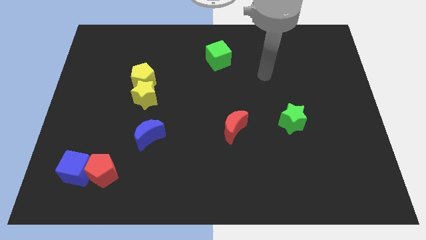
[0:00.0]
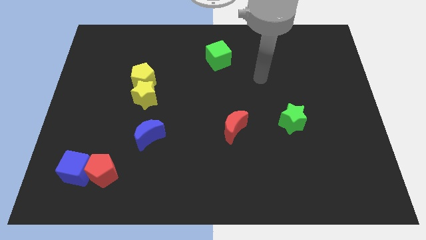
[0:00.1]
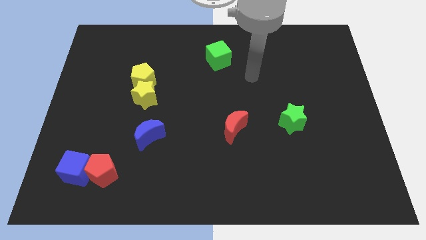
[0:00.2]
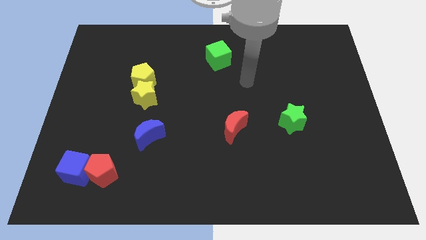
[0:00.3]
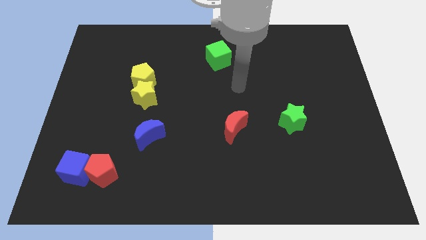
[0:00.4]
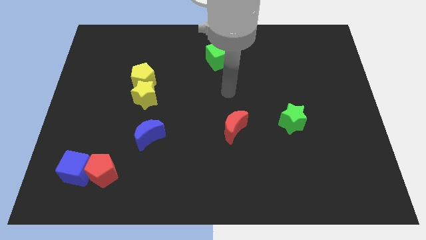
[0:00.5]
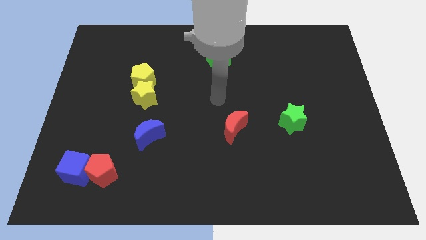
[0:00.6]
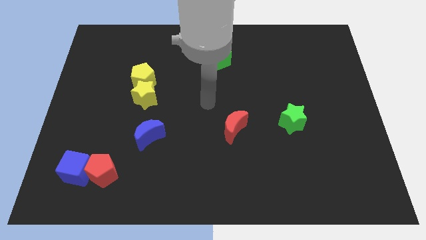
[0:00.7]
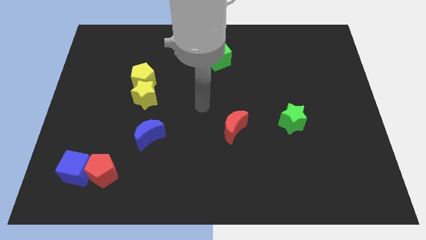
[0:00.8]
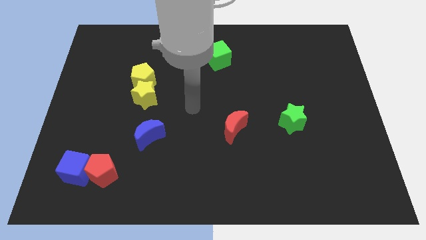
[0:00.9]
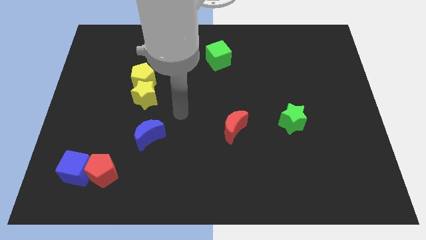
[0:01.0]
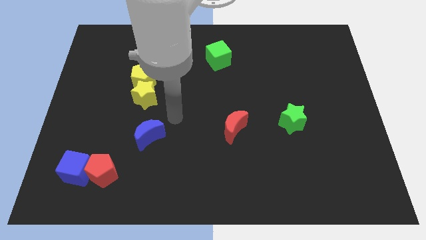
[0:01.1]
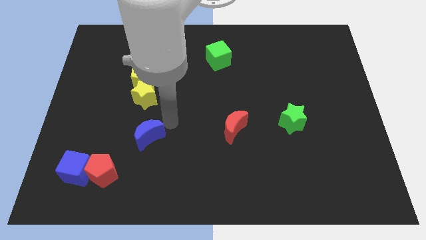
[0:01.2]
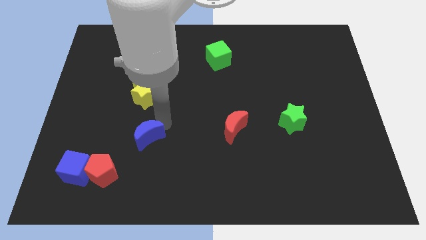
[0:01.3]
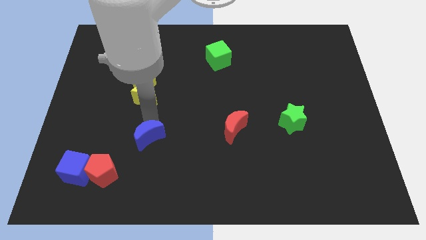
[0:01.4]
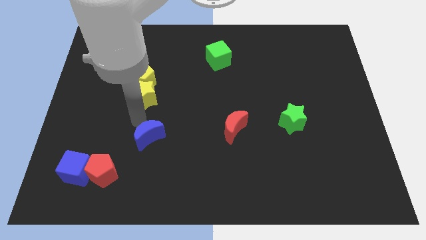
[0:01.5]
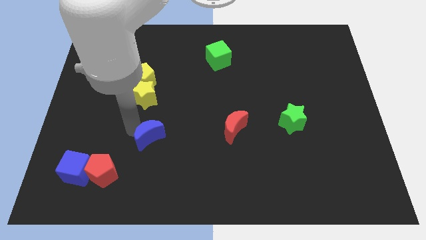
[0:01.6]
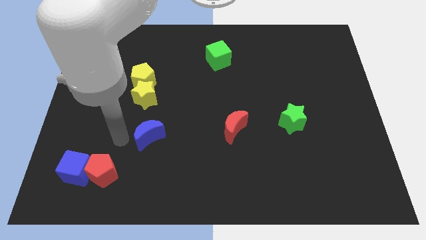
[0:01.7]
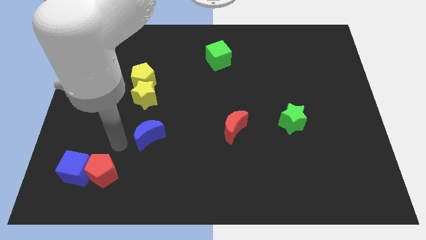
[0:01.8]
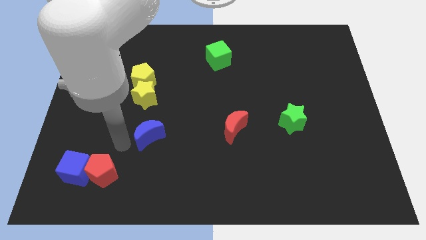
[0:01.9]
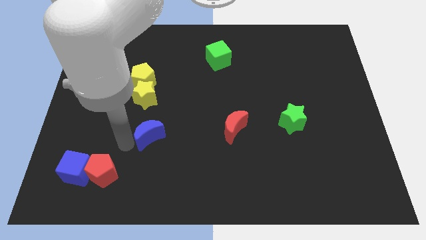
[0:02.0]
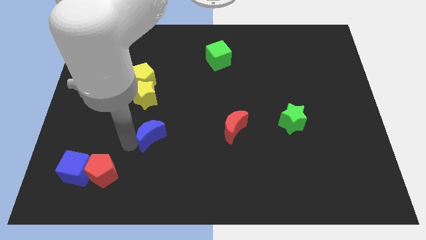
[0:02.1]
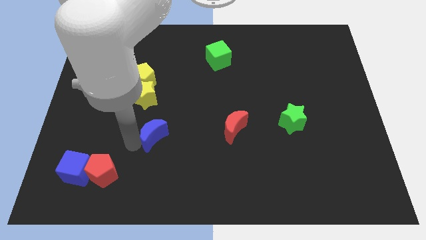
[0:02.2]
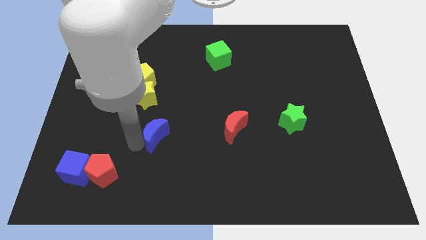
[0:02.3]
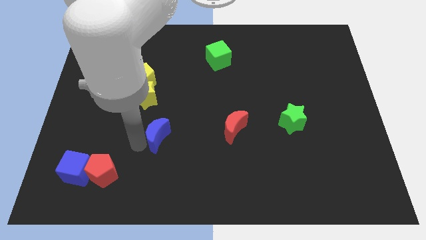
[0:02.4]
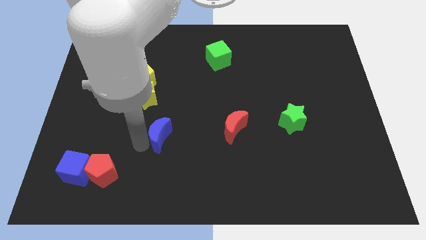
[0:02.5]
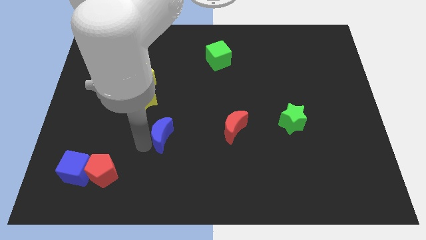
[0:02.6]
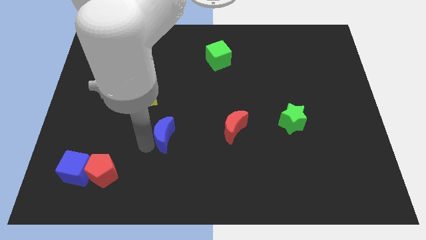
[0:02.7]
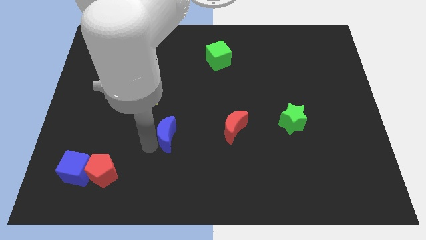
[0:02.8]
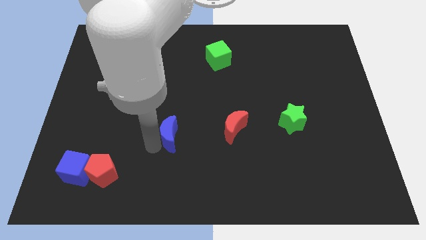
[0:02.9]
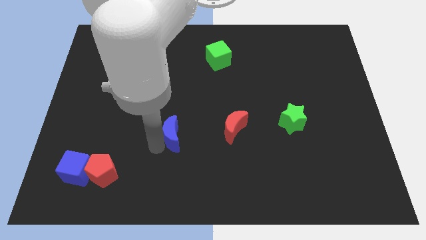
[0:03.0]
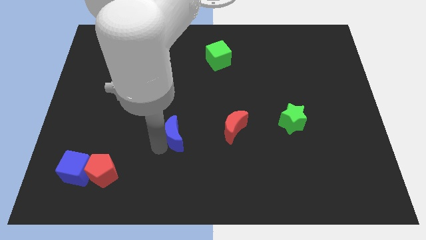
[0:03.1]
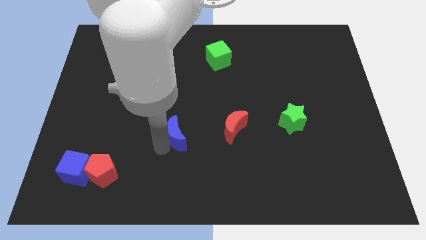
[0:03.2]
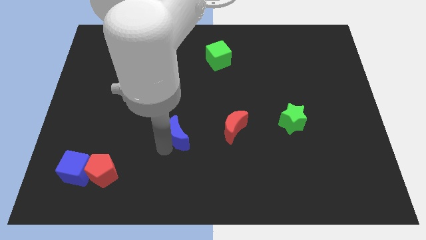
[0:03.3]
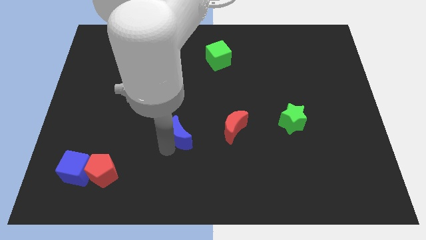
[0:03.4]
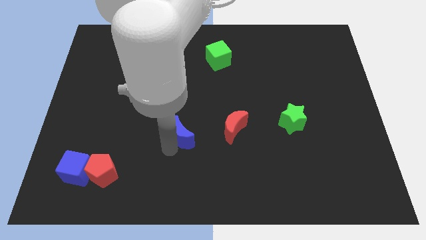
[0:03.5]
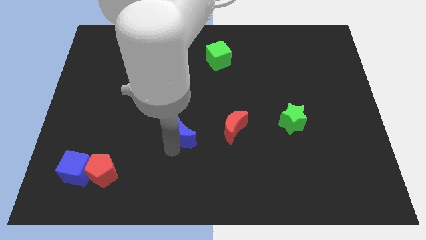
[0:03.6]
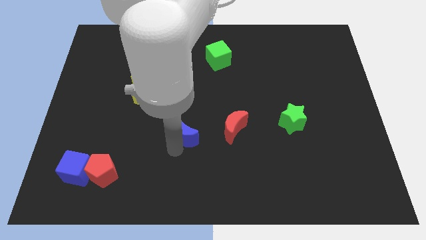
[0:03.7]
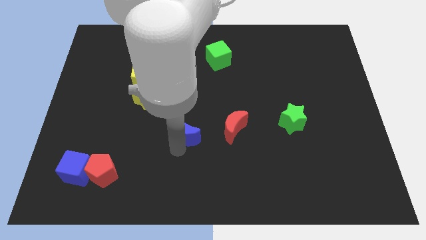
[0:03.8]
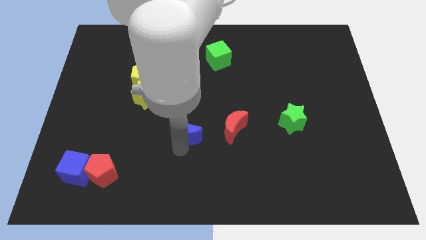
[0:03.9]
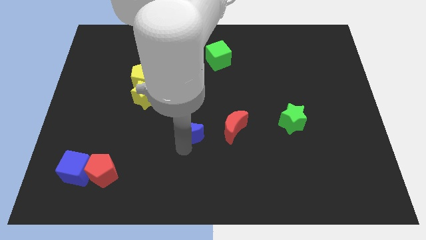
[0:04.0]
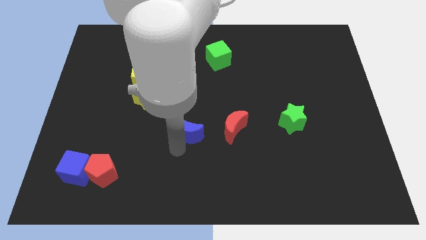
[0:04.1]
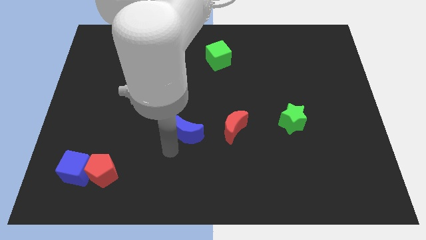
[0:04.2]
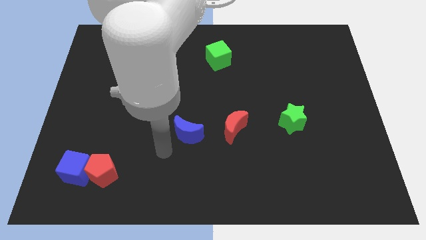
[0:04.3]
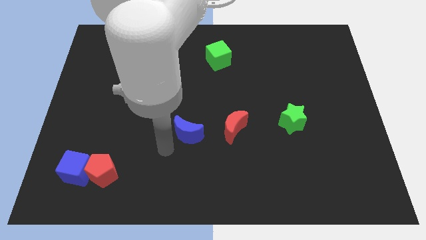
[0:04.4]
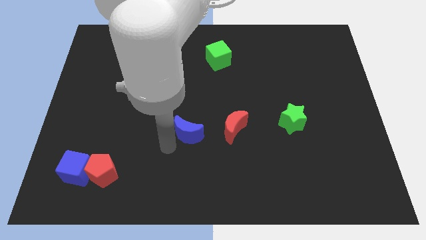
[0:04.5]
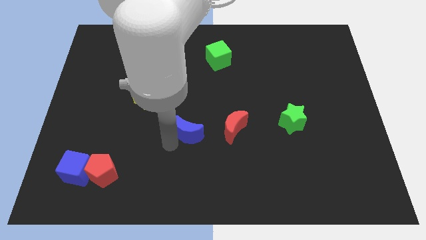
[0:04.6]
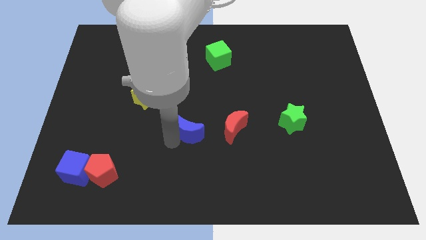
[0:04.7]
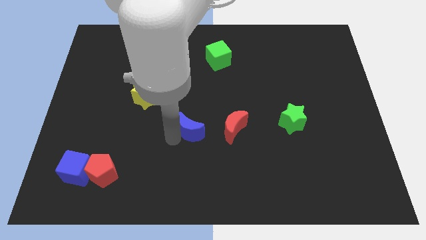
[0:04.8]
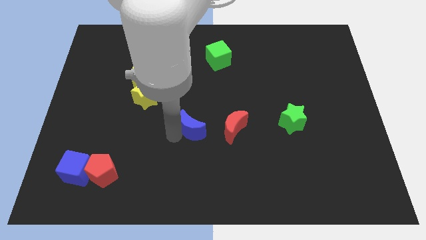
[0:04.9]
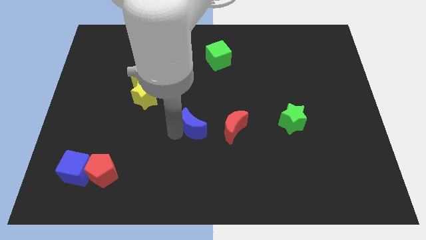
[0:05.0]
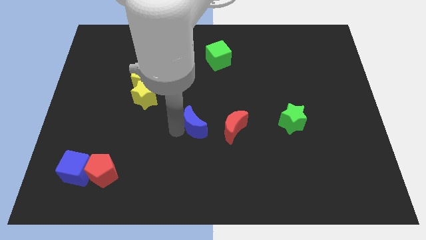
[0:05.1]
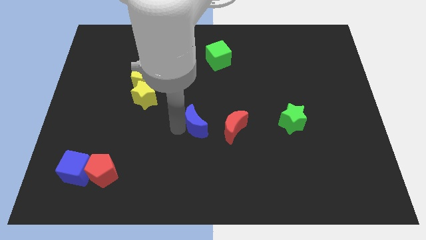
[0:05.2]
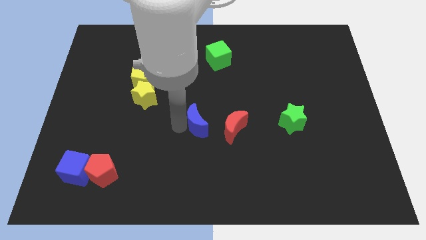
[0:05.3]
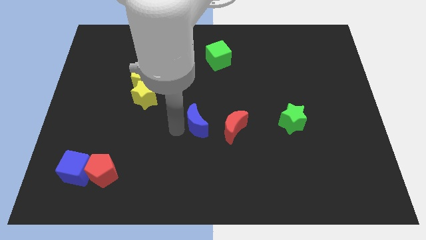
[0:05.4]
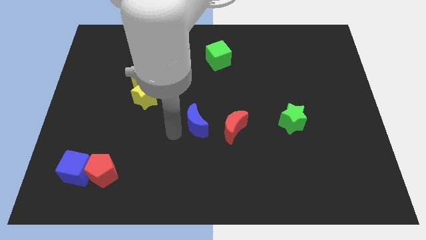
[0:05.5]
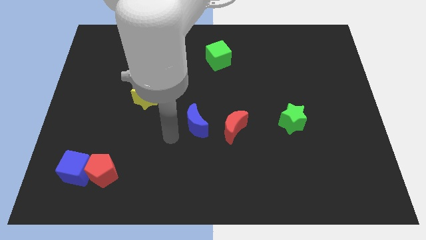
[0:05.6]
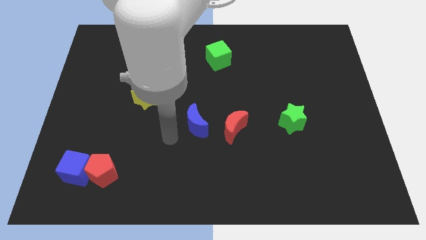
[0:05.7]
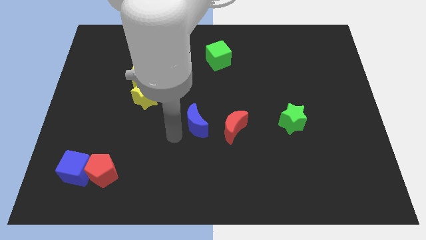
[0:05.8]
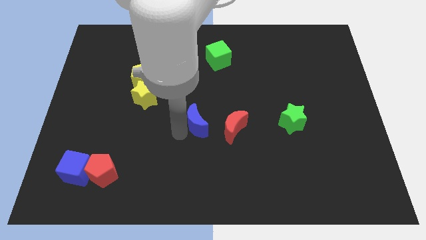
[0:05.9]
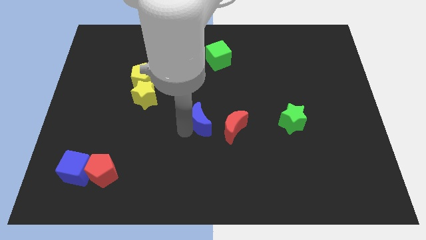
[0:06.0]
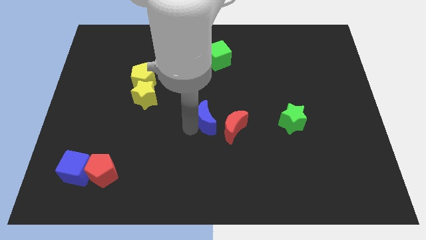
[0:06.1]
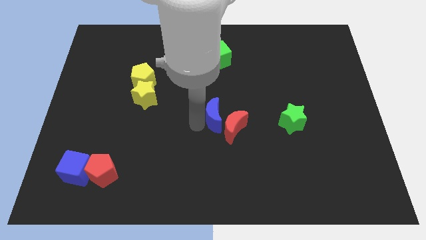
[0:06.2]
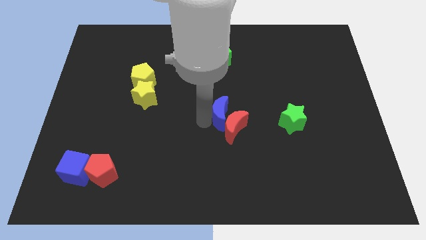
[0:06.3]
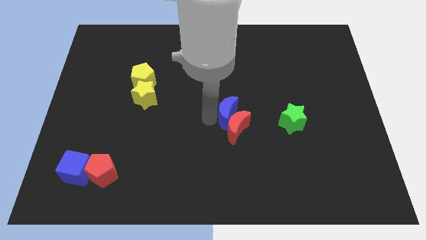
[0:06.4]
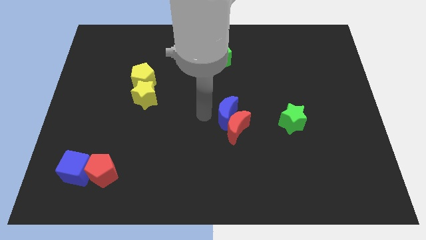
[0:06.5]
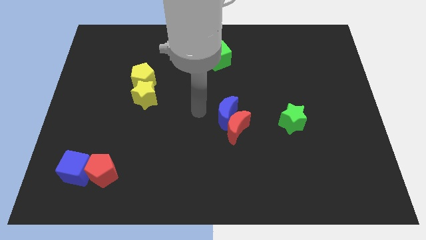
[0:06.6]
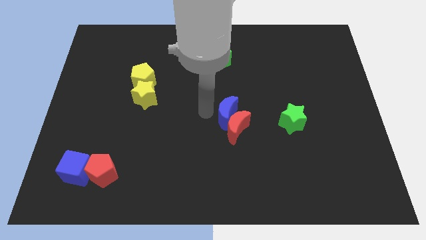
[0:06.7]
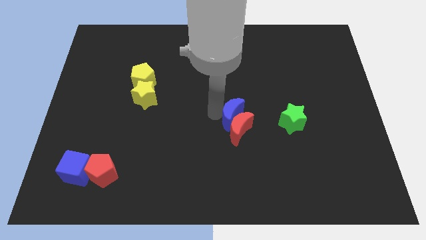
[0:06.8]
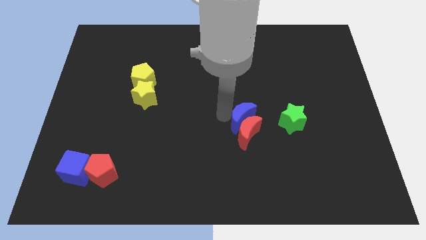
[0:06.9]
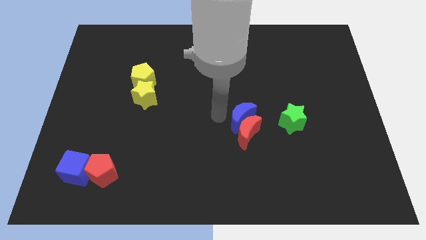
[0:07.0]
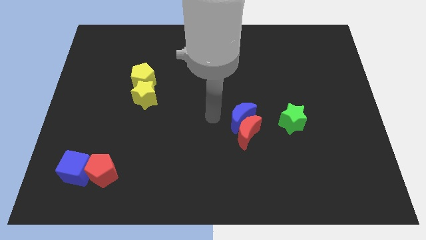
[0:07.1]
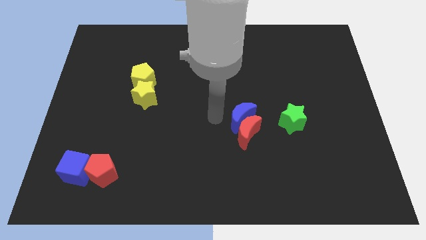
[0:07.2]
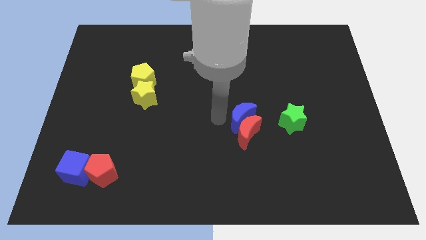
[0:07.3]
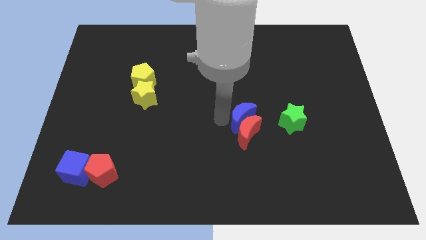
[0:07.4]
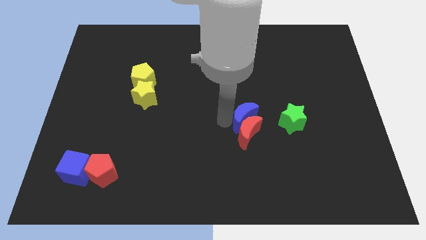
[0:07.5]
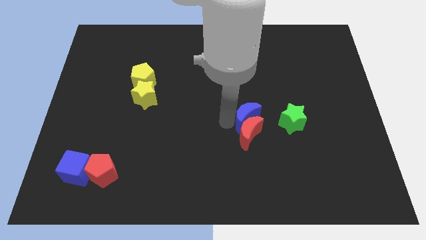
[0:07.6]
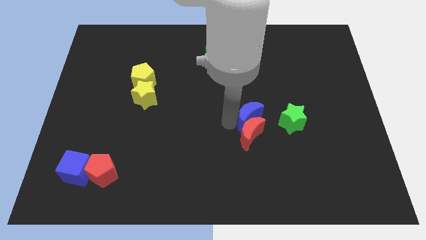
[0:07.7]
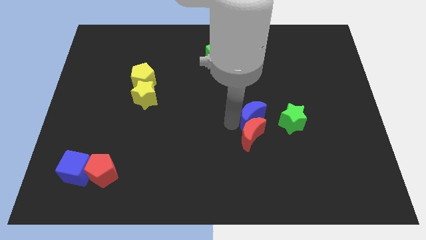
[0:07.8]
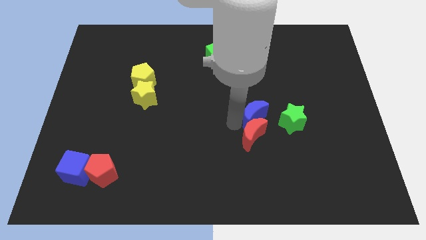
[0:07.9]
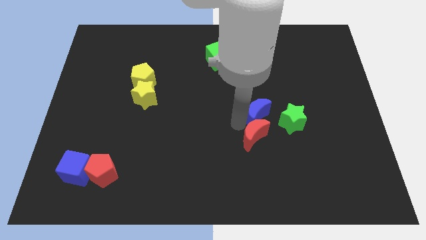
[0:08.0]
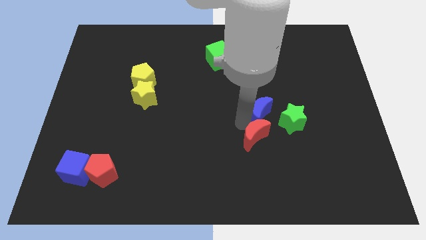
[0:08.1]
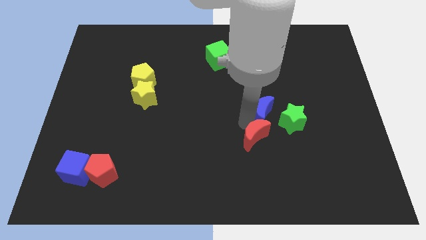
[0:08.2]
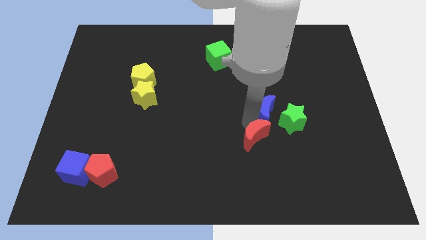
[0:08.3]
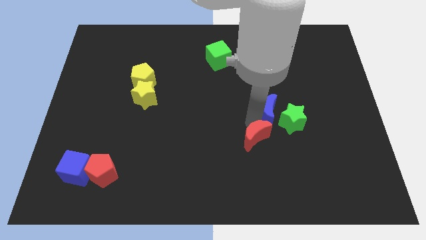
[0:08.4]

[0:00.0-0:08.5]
push the blue moon towards the green star
